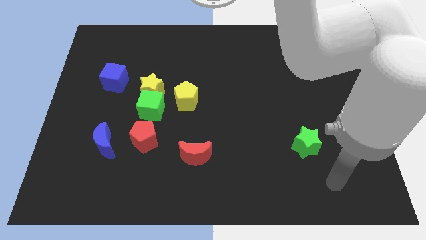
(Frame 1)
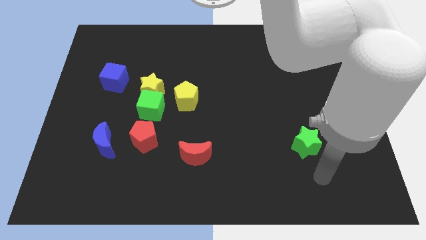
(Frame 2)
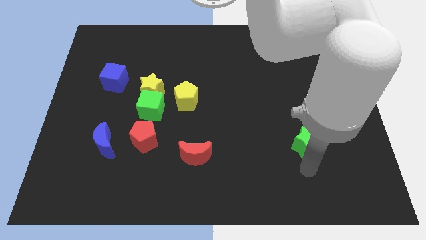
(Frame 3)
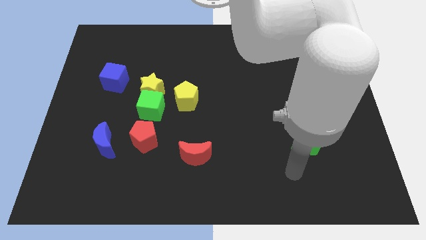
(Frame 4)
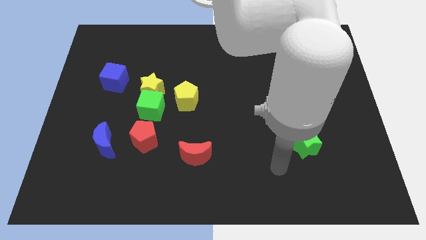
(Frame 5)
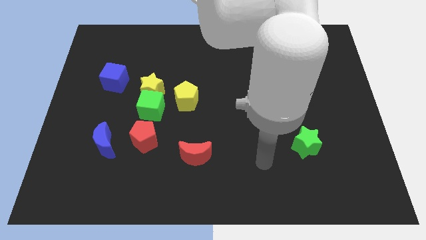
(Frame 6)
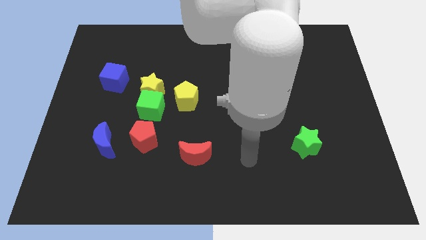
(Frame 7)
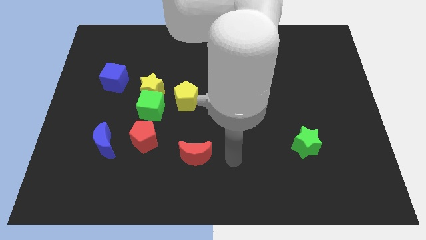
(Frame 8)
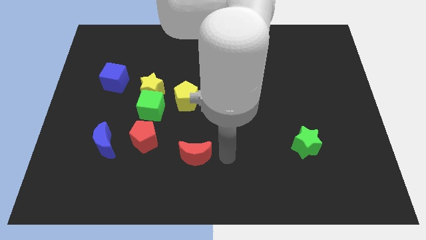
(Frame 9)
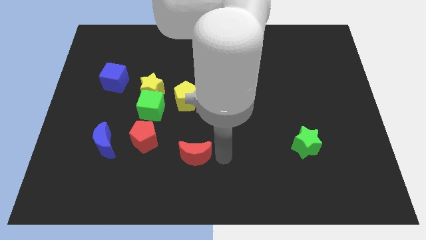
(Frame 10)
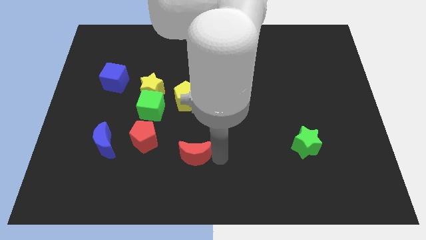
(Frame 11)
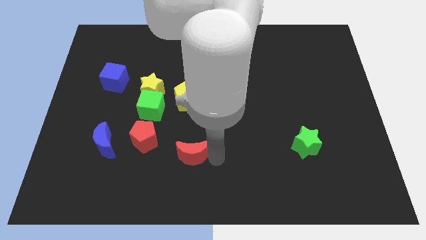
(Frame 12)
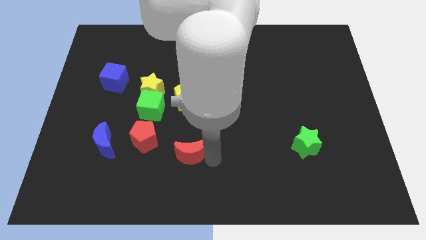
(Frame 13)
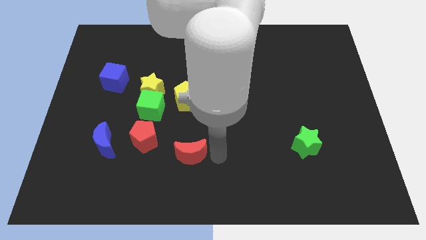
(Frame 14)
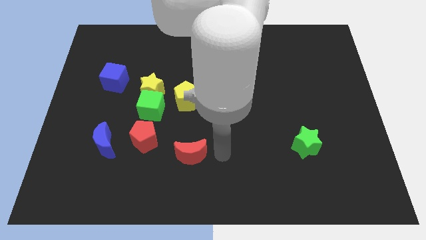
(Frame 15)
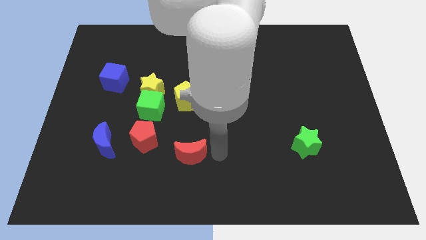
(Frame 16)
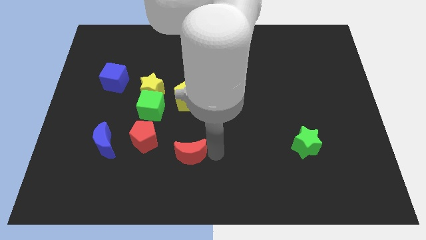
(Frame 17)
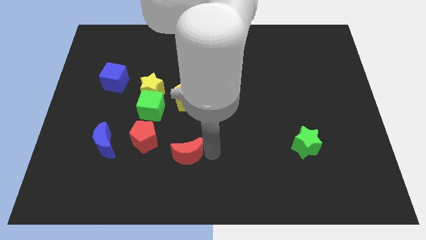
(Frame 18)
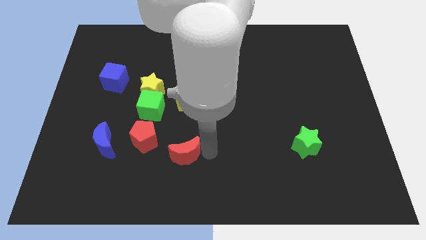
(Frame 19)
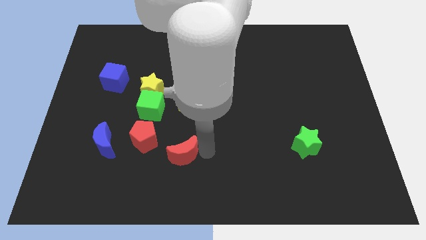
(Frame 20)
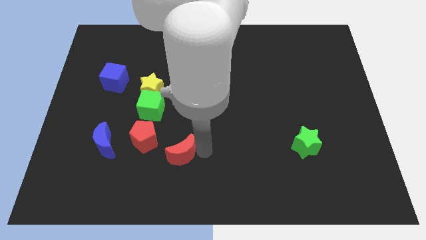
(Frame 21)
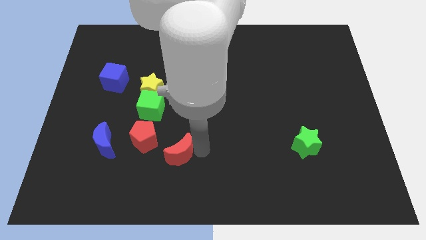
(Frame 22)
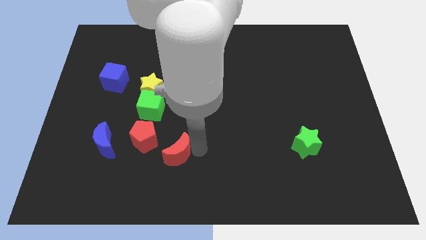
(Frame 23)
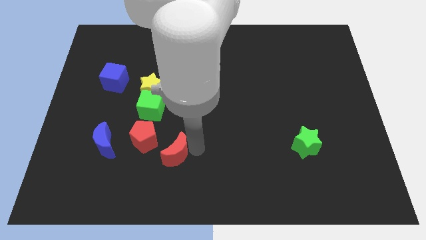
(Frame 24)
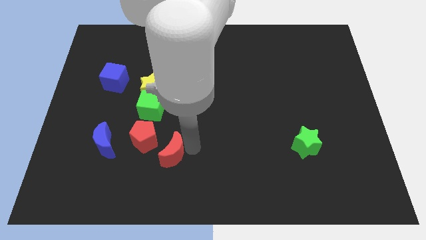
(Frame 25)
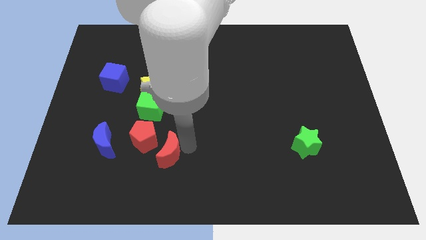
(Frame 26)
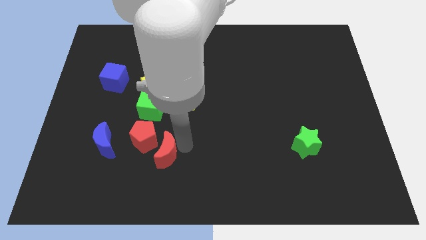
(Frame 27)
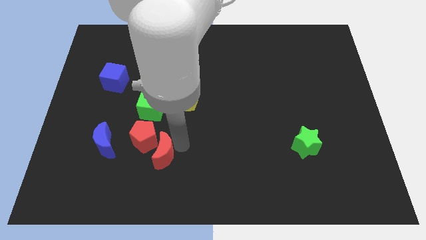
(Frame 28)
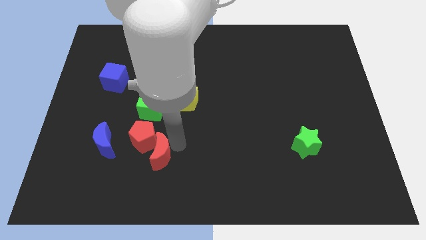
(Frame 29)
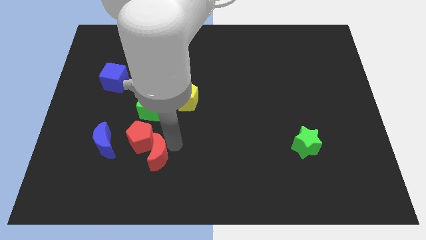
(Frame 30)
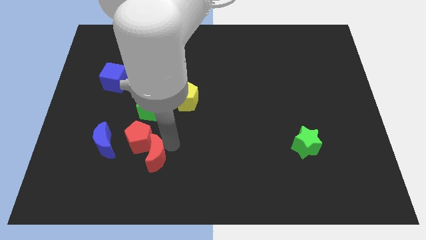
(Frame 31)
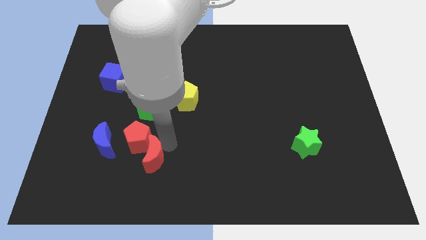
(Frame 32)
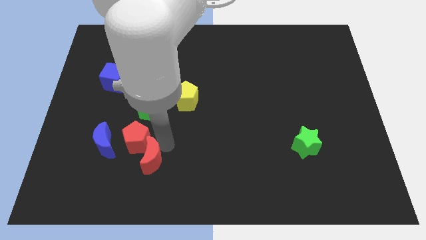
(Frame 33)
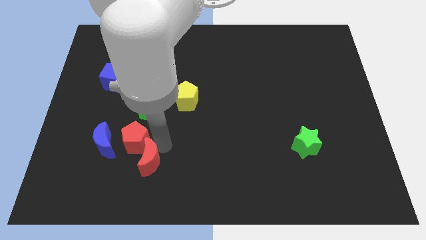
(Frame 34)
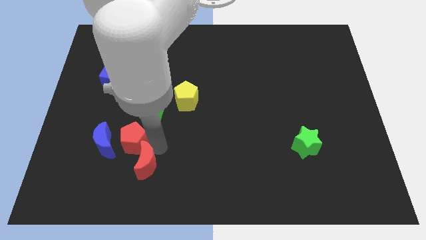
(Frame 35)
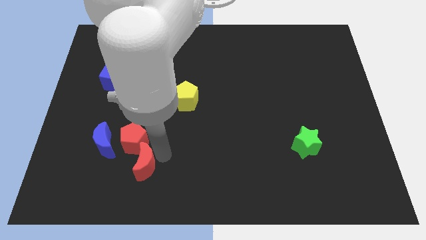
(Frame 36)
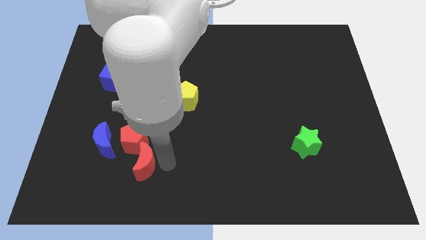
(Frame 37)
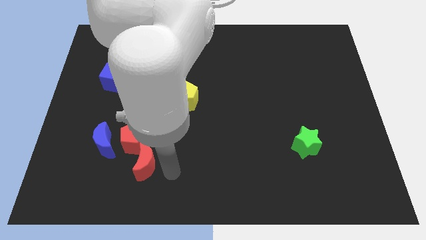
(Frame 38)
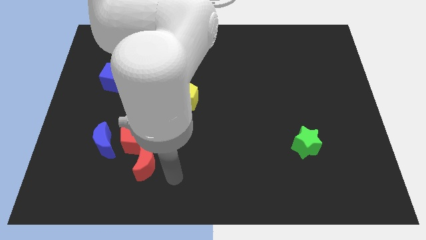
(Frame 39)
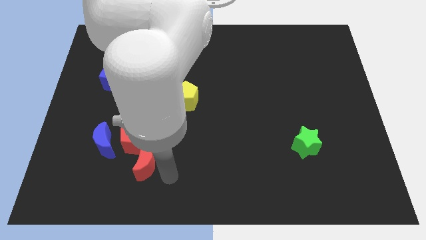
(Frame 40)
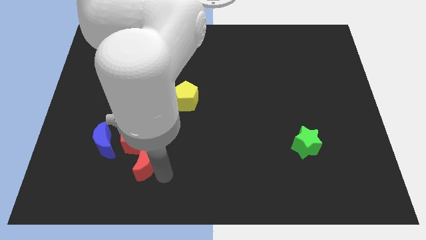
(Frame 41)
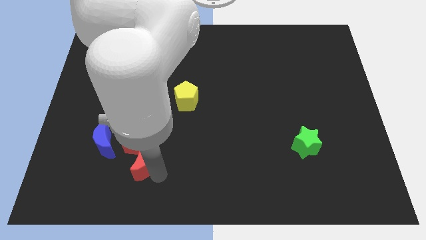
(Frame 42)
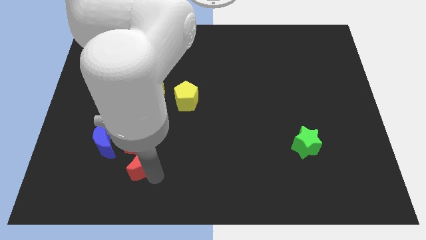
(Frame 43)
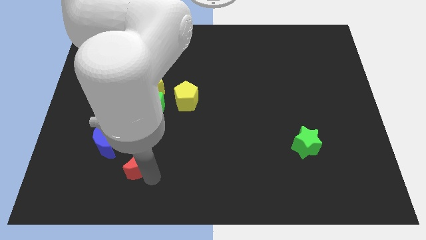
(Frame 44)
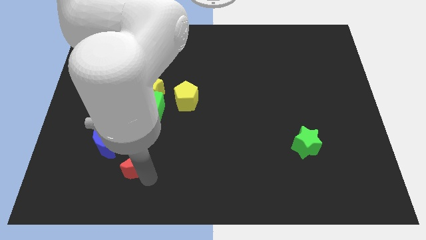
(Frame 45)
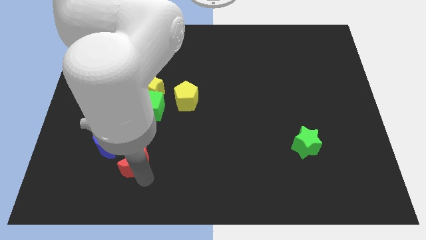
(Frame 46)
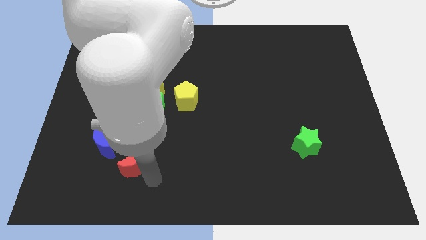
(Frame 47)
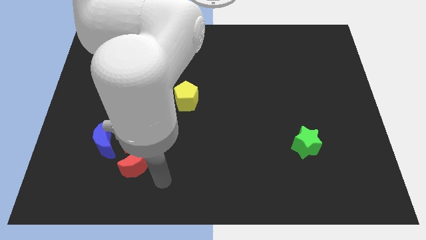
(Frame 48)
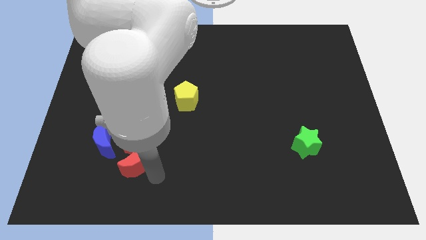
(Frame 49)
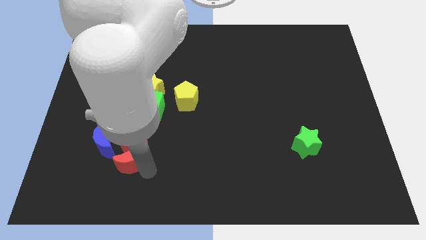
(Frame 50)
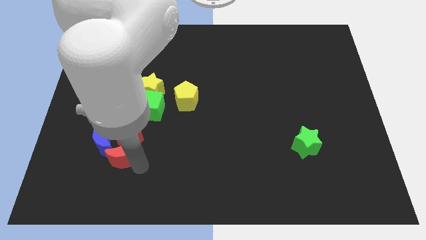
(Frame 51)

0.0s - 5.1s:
put the red moon towards the blue moon

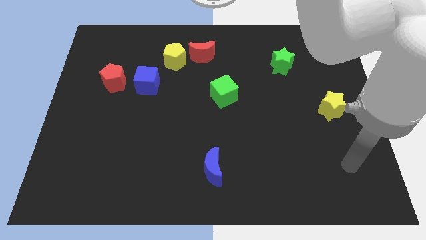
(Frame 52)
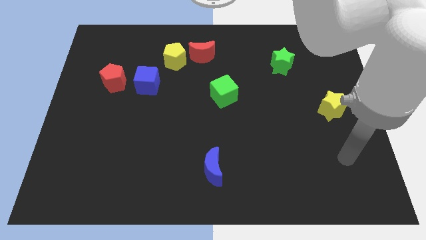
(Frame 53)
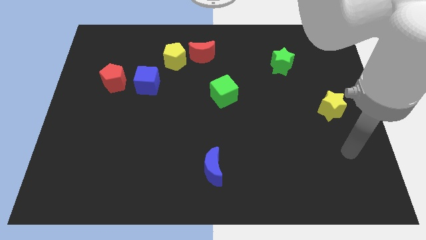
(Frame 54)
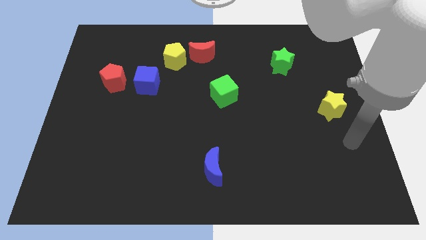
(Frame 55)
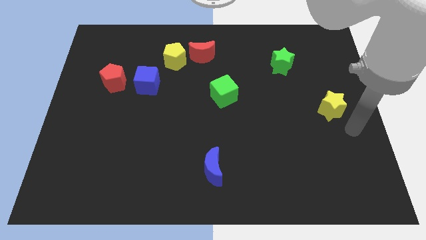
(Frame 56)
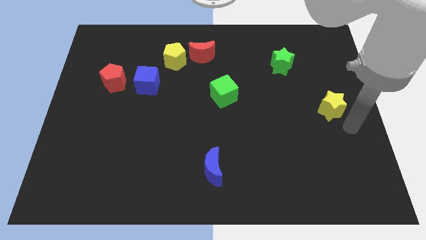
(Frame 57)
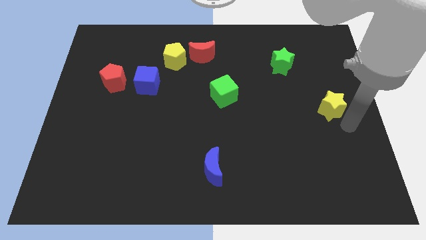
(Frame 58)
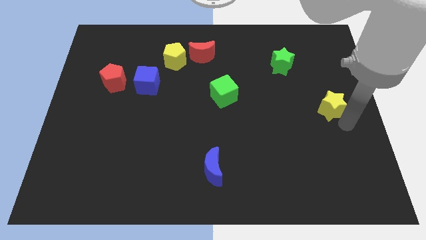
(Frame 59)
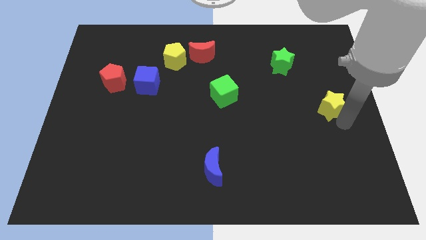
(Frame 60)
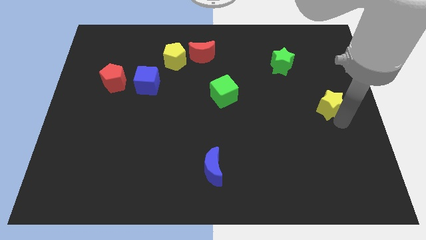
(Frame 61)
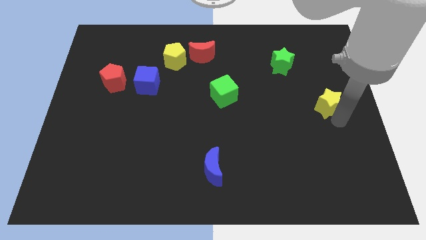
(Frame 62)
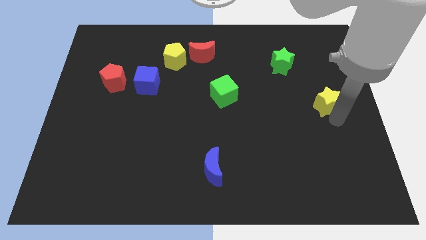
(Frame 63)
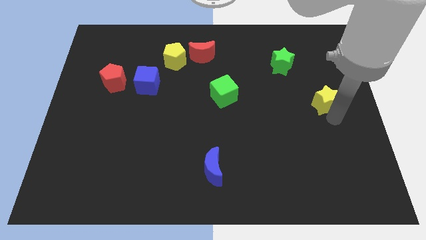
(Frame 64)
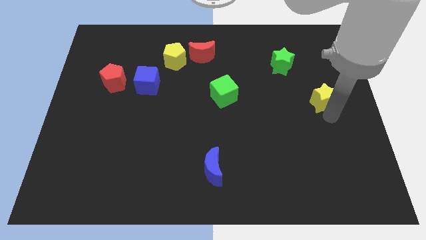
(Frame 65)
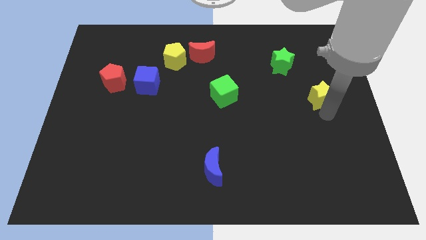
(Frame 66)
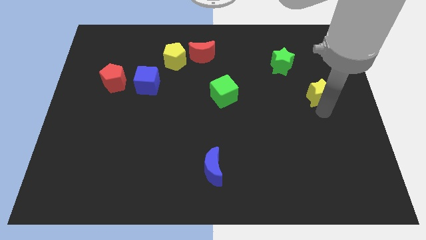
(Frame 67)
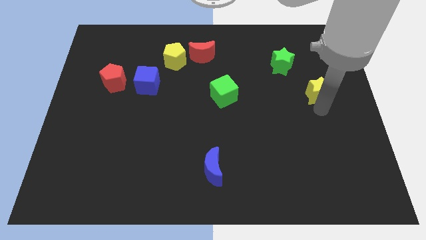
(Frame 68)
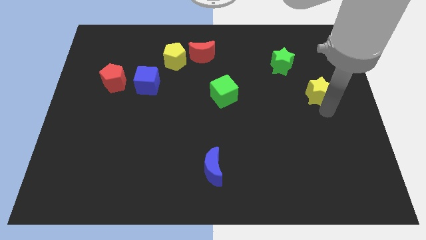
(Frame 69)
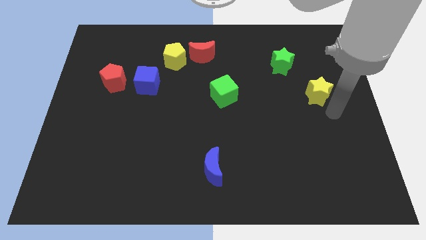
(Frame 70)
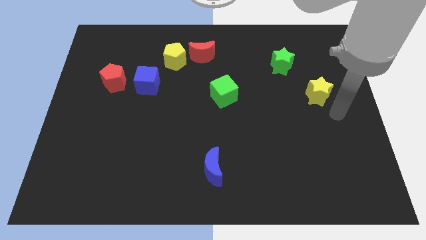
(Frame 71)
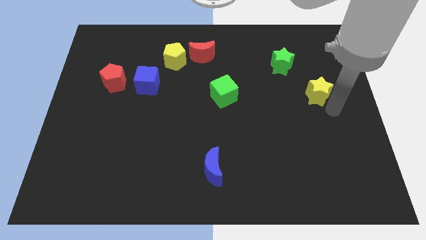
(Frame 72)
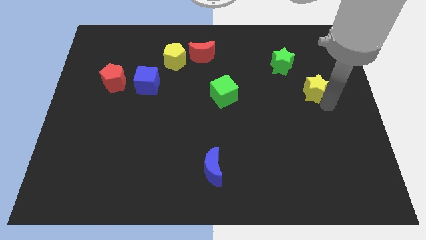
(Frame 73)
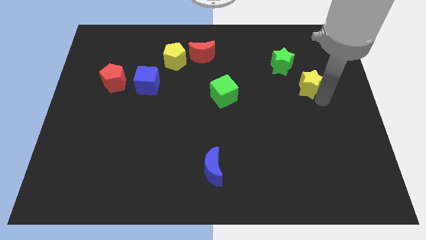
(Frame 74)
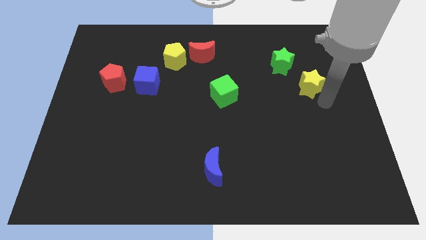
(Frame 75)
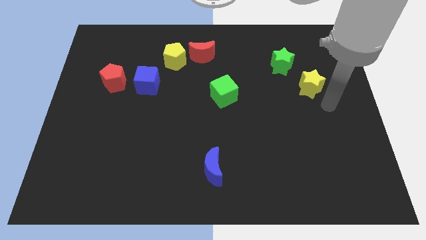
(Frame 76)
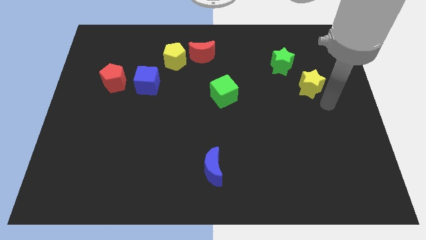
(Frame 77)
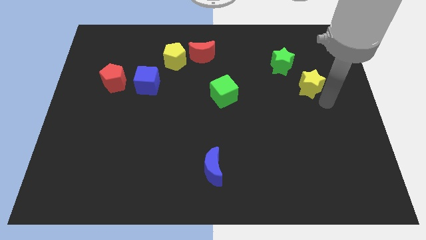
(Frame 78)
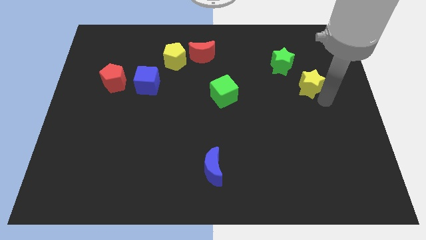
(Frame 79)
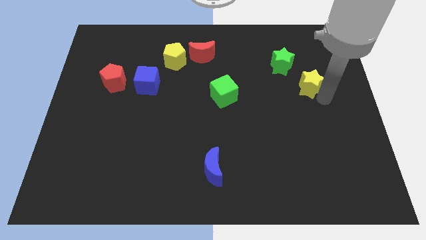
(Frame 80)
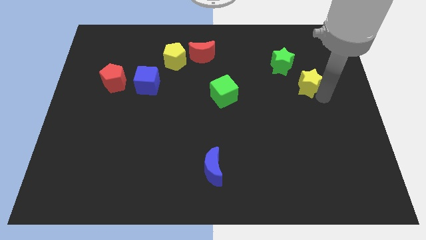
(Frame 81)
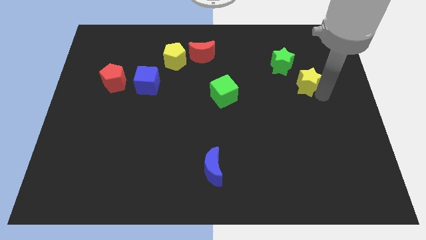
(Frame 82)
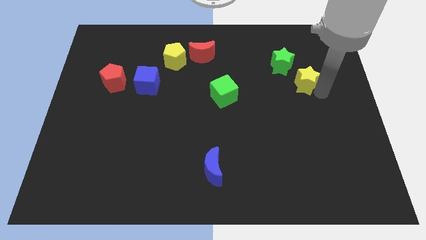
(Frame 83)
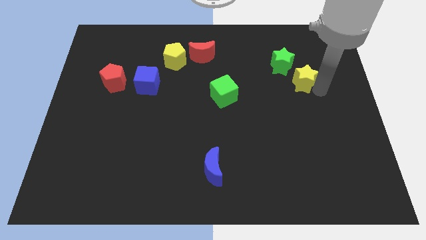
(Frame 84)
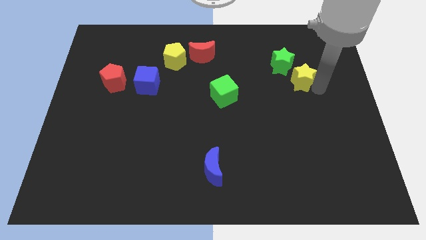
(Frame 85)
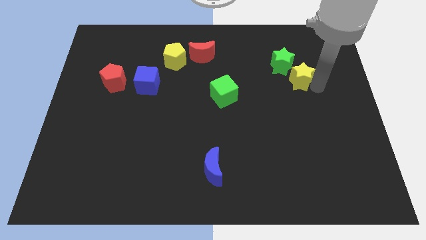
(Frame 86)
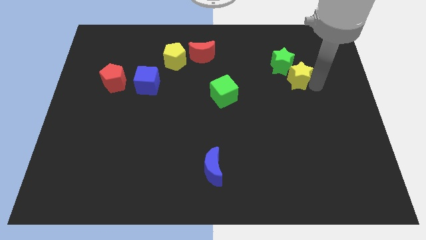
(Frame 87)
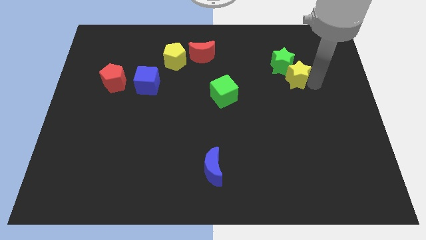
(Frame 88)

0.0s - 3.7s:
put the yellow star close to the green star
